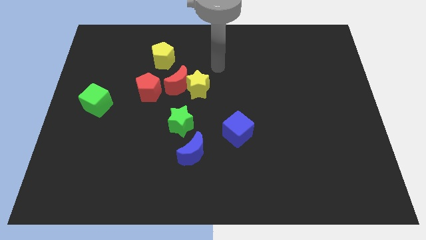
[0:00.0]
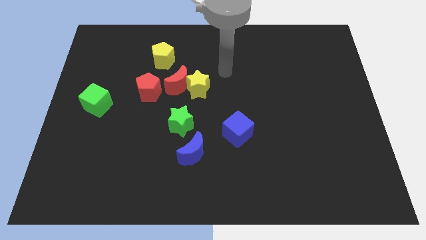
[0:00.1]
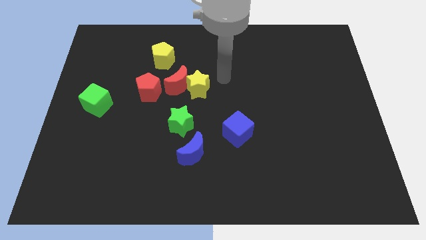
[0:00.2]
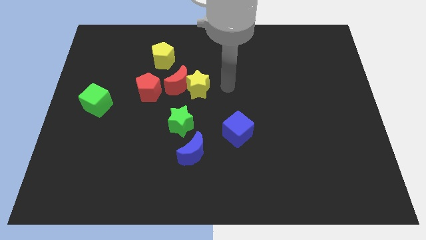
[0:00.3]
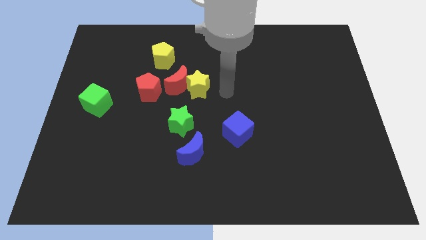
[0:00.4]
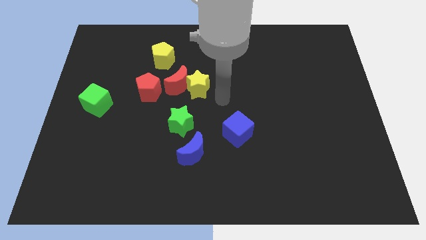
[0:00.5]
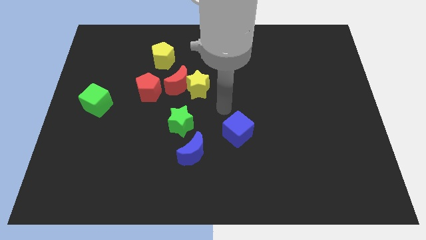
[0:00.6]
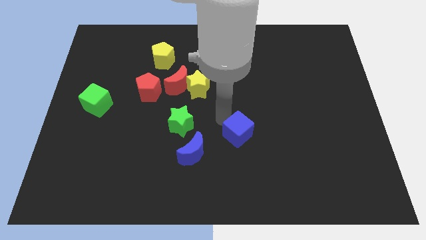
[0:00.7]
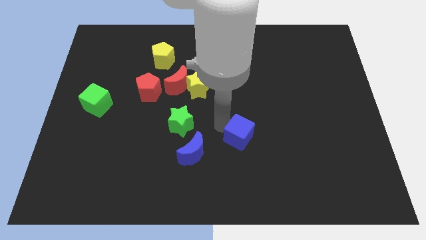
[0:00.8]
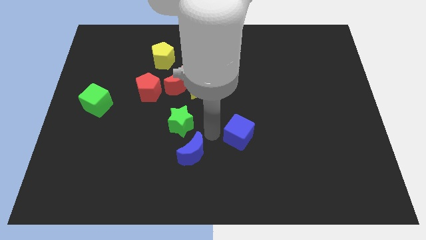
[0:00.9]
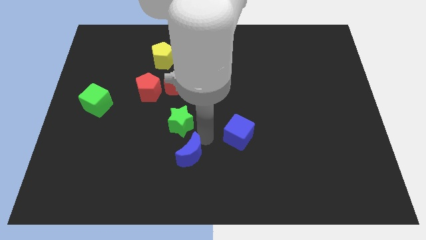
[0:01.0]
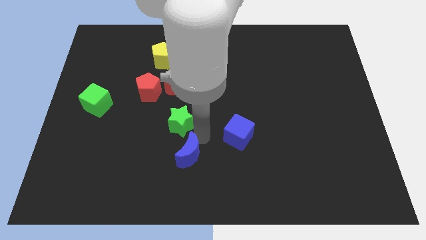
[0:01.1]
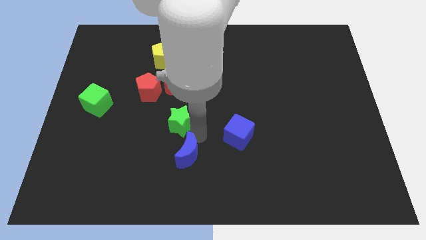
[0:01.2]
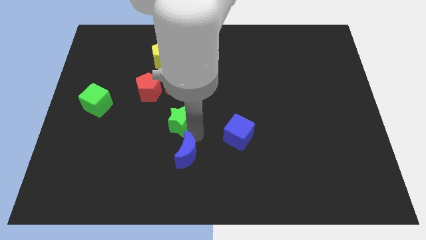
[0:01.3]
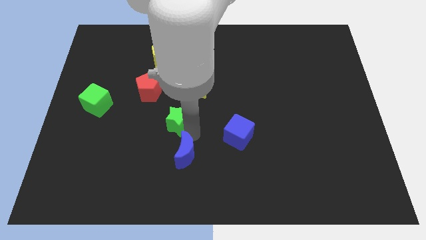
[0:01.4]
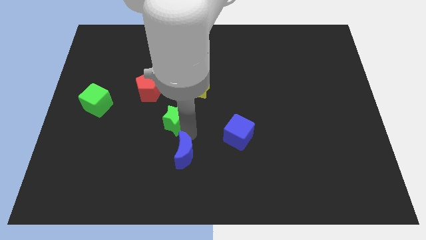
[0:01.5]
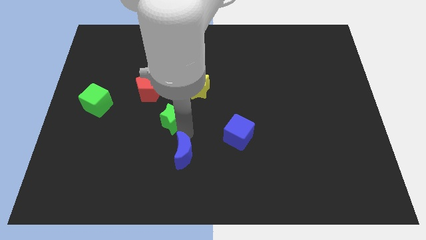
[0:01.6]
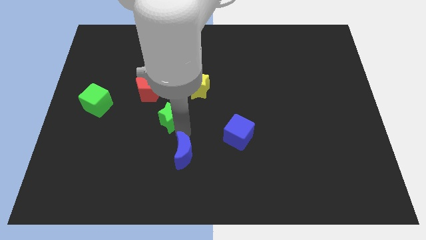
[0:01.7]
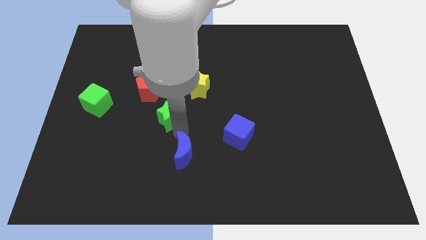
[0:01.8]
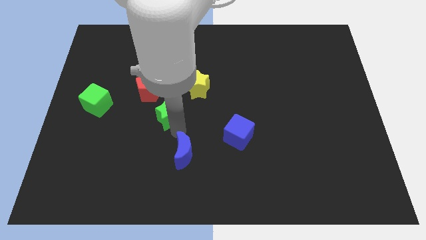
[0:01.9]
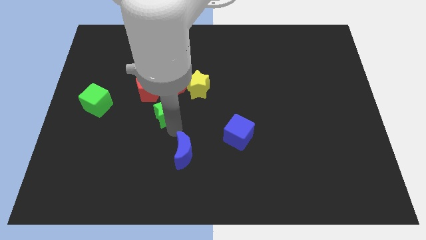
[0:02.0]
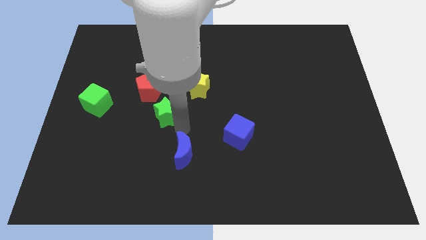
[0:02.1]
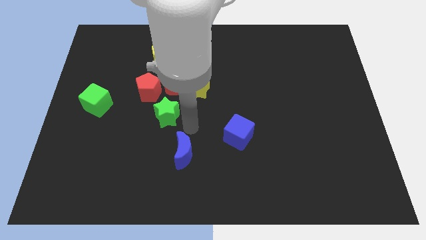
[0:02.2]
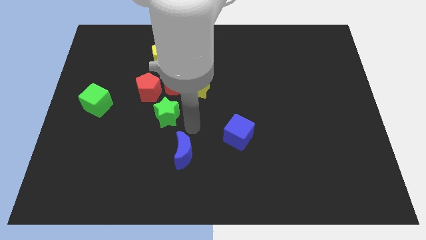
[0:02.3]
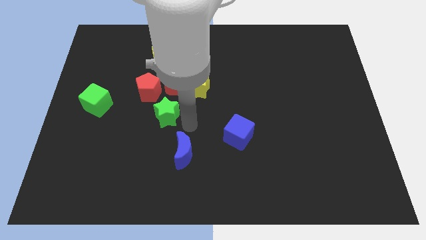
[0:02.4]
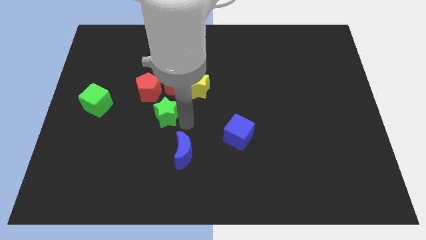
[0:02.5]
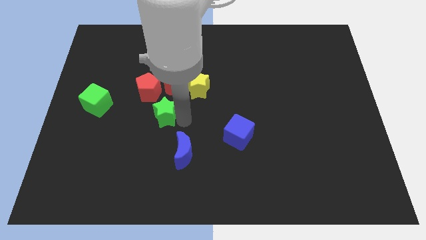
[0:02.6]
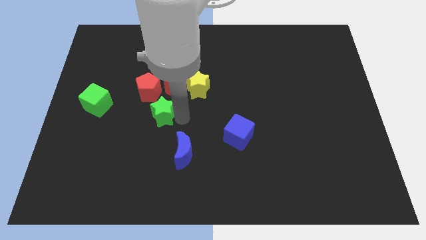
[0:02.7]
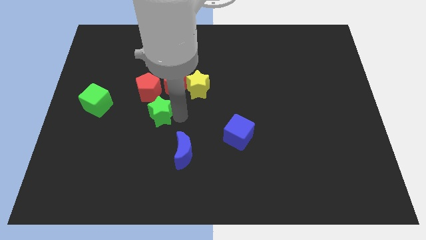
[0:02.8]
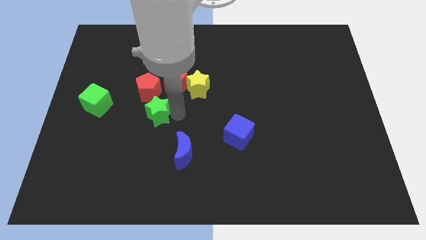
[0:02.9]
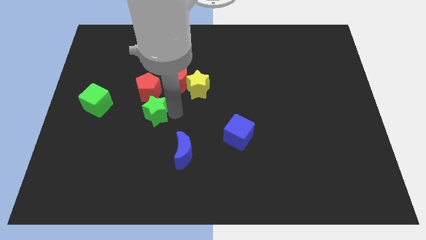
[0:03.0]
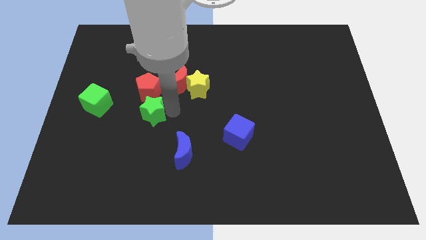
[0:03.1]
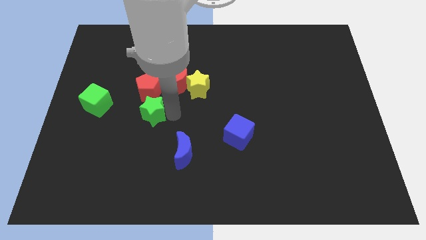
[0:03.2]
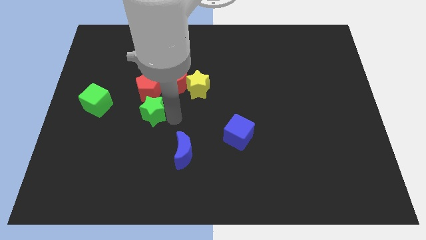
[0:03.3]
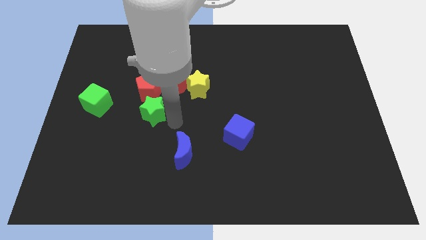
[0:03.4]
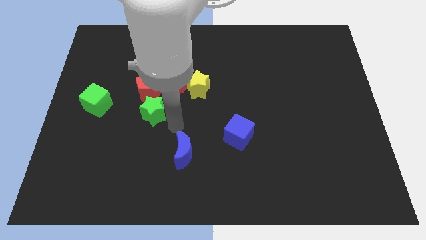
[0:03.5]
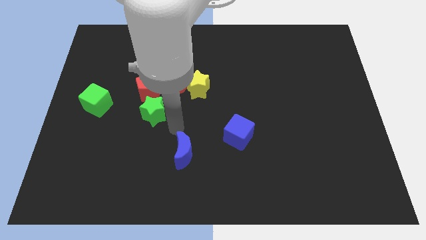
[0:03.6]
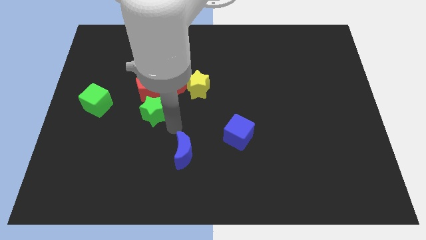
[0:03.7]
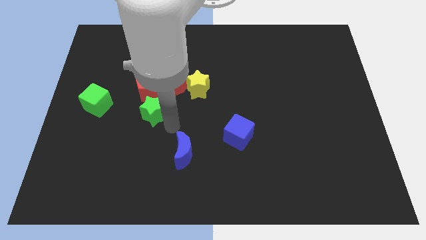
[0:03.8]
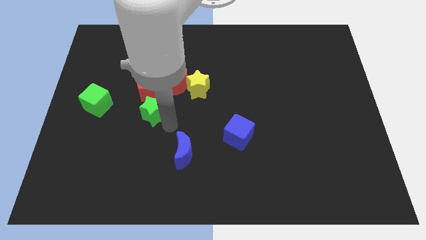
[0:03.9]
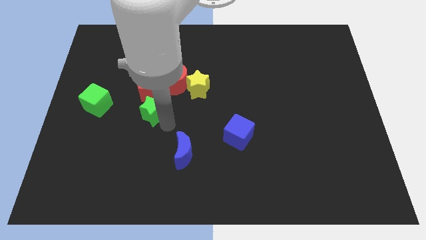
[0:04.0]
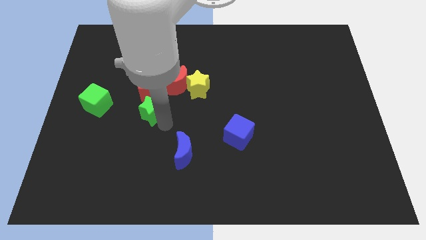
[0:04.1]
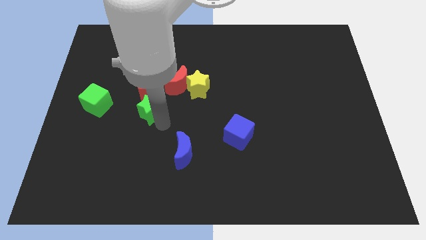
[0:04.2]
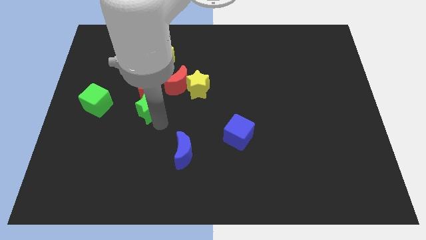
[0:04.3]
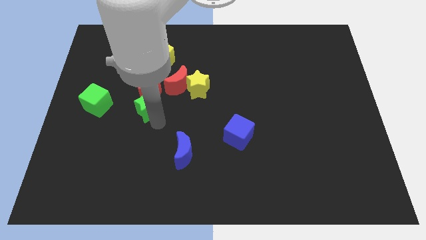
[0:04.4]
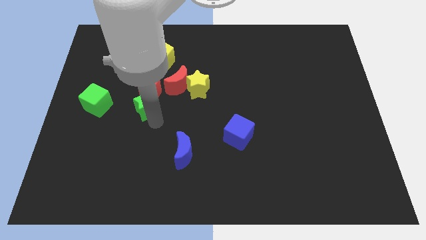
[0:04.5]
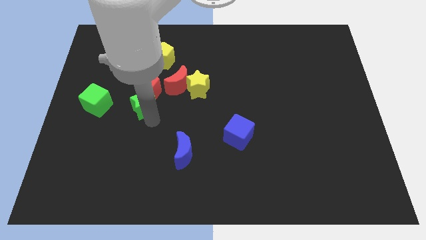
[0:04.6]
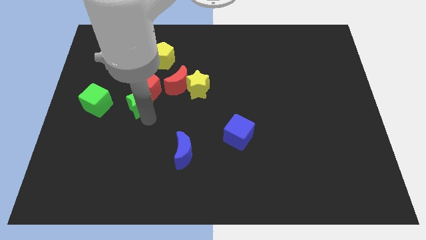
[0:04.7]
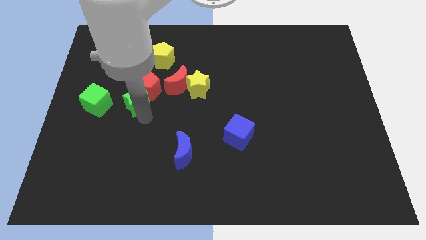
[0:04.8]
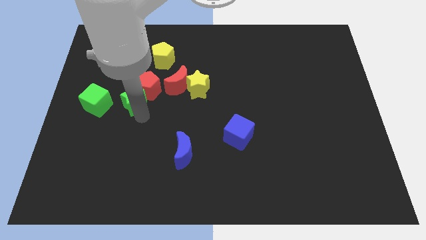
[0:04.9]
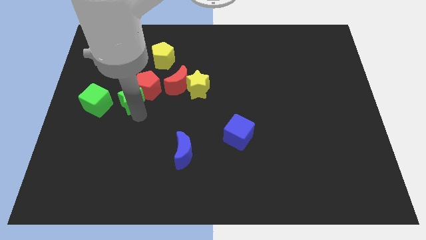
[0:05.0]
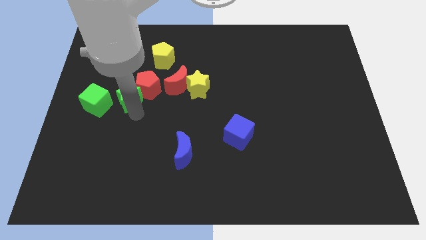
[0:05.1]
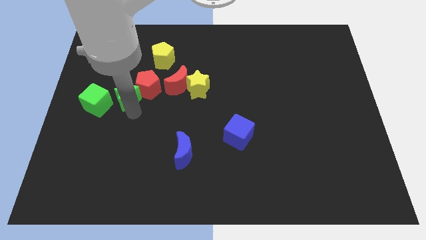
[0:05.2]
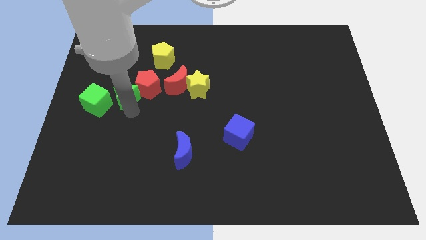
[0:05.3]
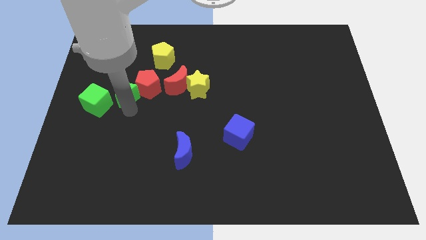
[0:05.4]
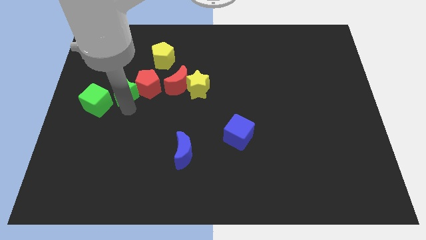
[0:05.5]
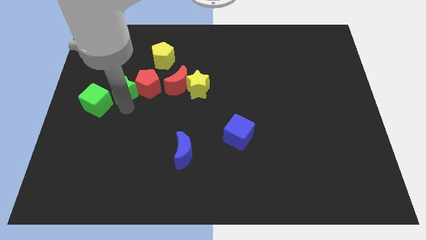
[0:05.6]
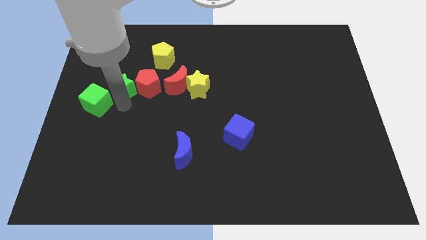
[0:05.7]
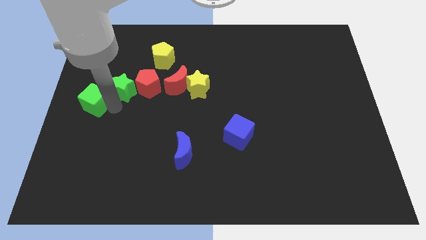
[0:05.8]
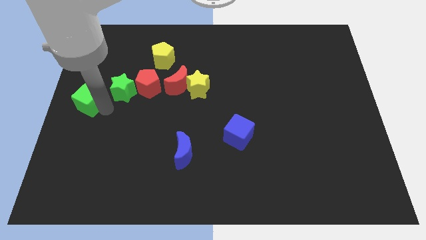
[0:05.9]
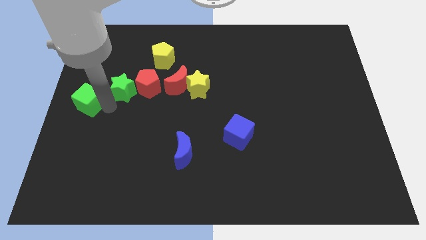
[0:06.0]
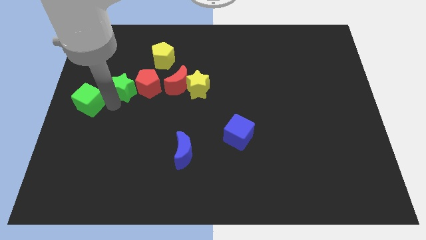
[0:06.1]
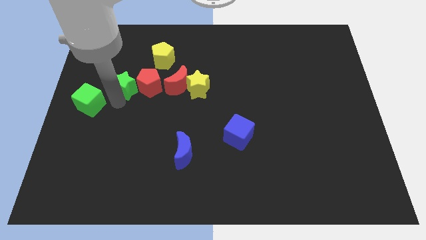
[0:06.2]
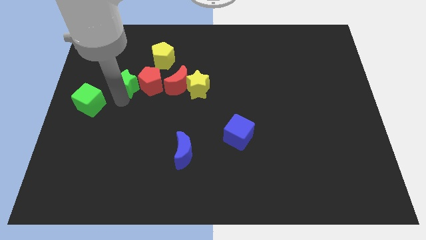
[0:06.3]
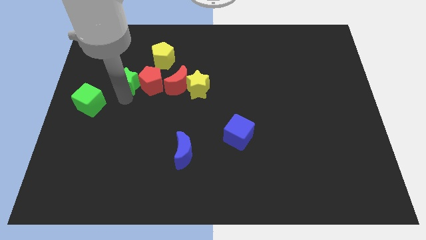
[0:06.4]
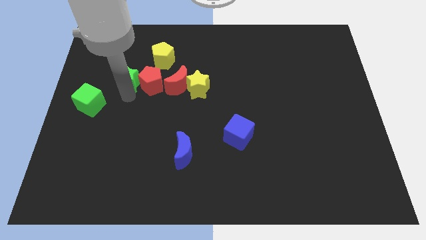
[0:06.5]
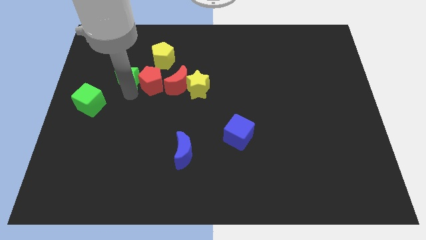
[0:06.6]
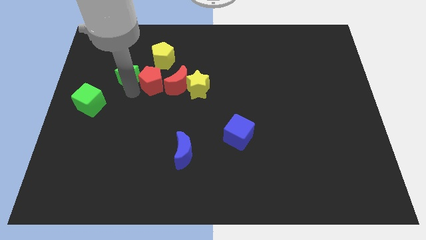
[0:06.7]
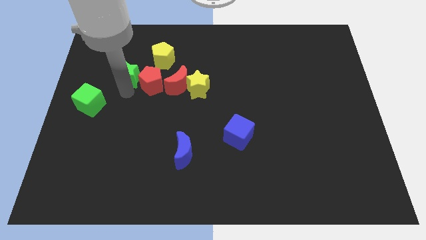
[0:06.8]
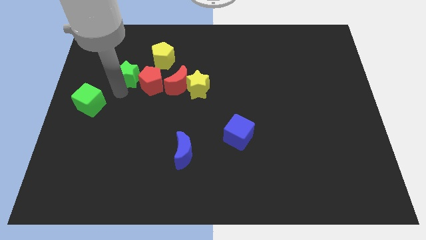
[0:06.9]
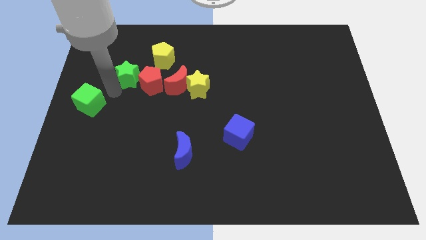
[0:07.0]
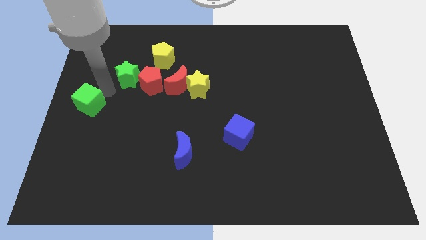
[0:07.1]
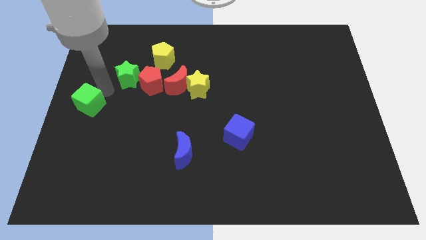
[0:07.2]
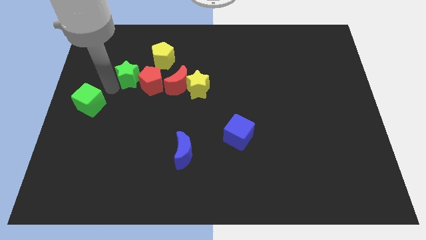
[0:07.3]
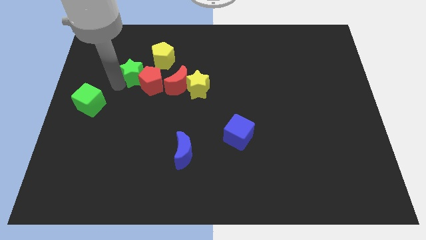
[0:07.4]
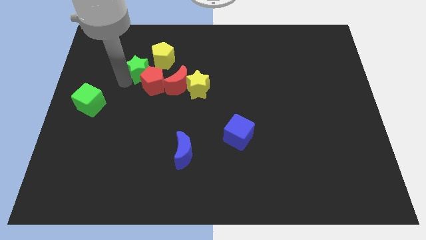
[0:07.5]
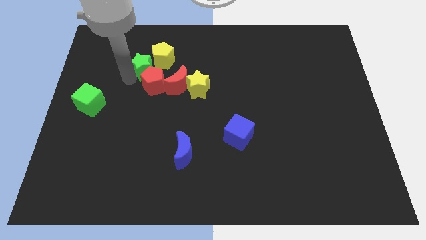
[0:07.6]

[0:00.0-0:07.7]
slide the green star next to the yellow pentagon
